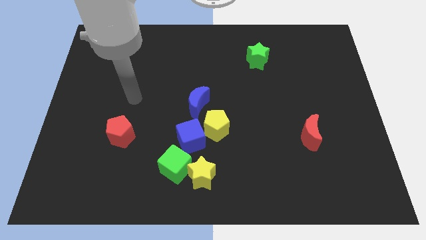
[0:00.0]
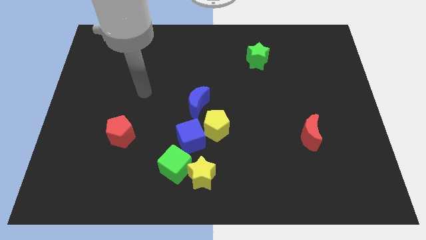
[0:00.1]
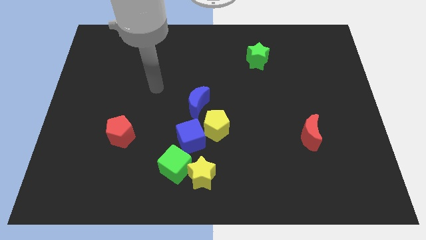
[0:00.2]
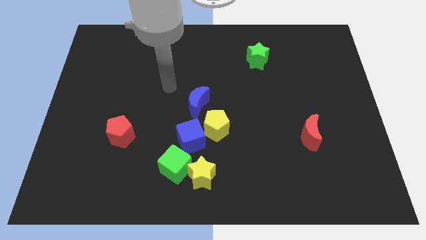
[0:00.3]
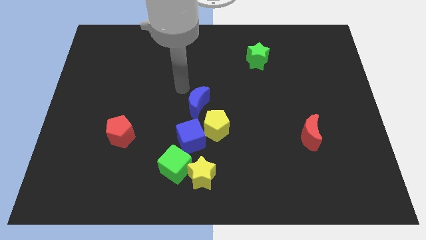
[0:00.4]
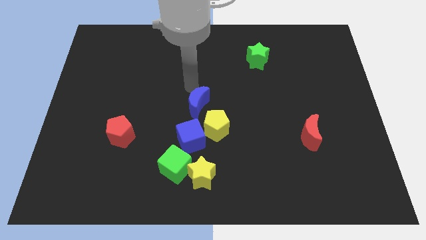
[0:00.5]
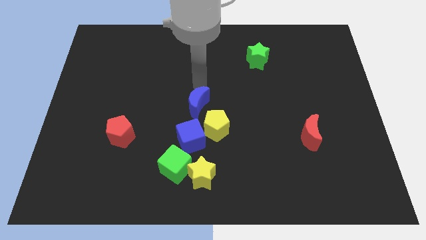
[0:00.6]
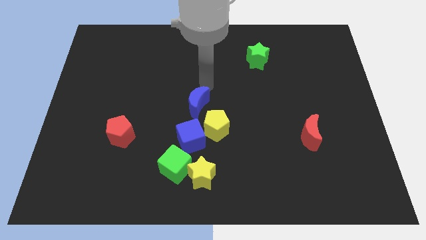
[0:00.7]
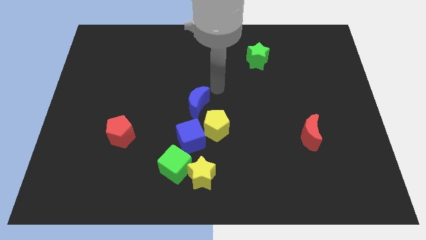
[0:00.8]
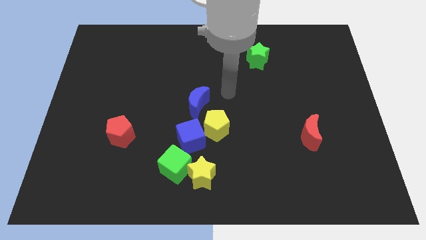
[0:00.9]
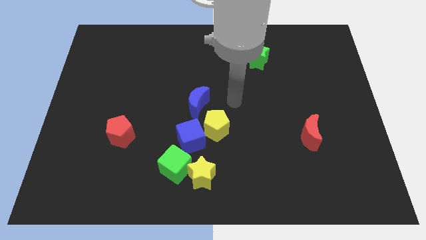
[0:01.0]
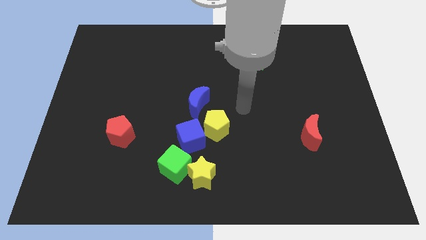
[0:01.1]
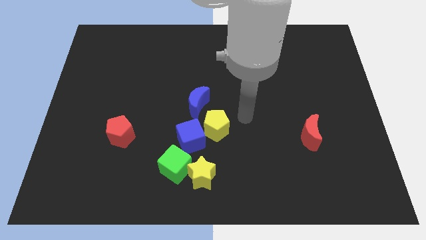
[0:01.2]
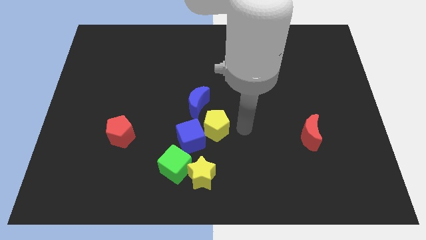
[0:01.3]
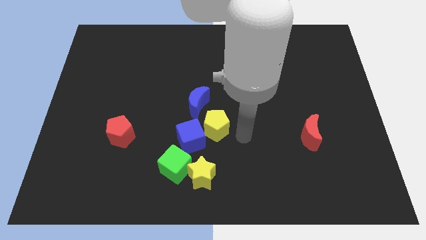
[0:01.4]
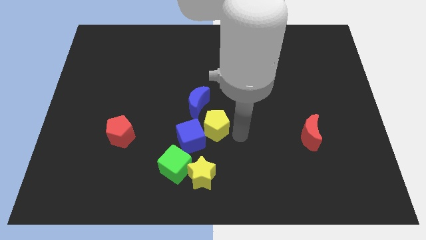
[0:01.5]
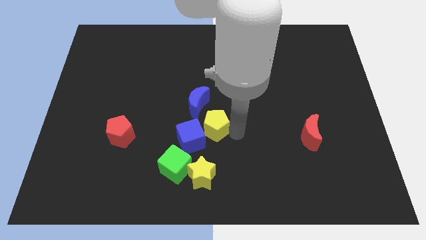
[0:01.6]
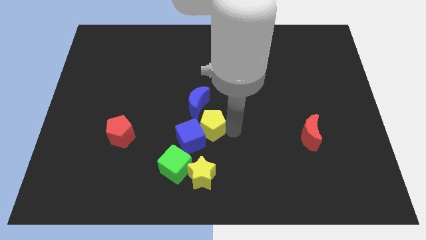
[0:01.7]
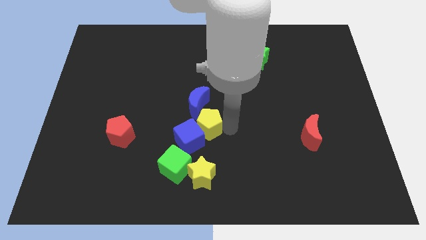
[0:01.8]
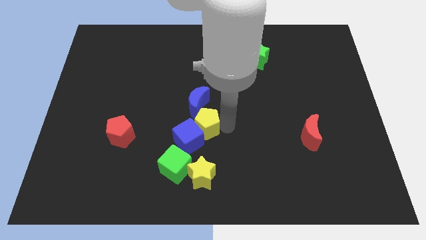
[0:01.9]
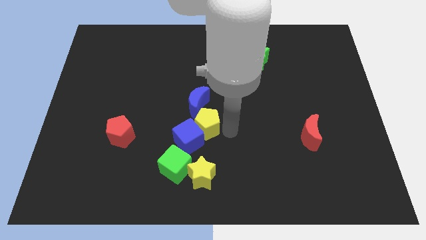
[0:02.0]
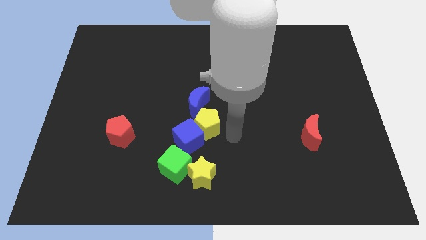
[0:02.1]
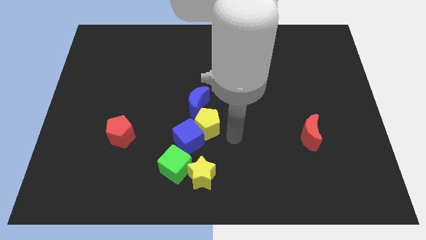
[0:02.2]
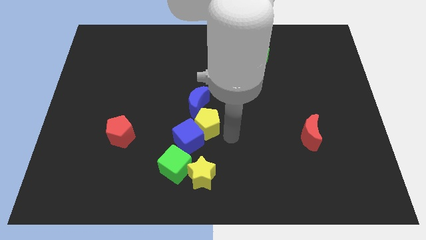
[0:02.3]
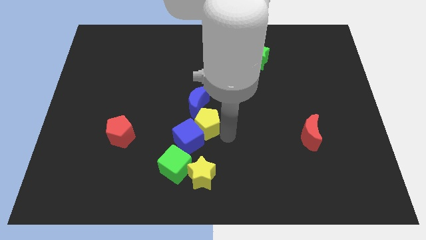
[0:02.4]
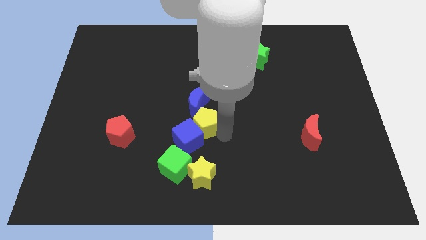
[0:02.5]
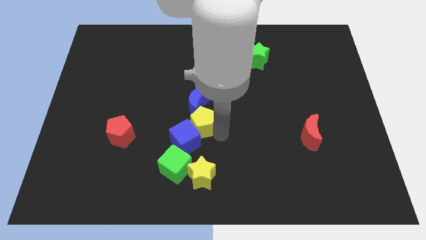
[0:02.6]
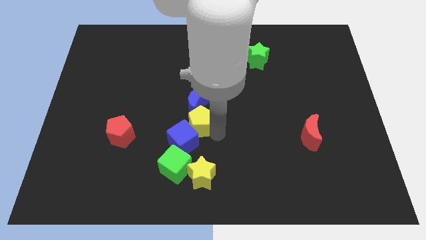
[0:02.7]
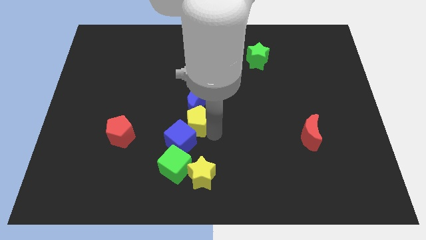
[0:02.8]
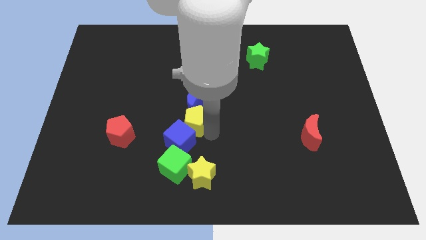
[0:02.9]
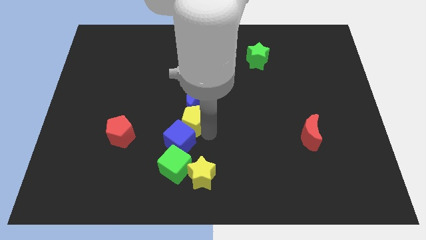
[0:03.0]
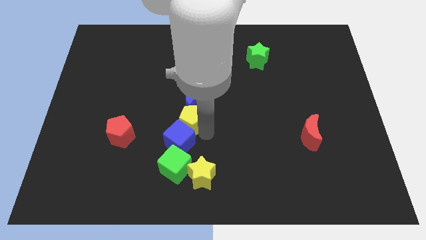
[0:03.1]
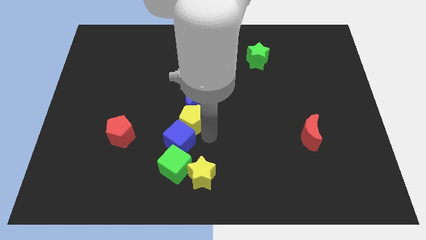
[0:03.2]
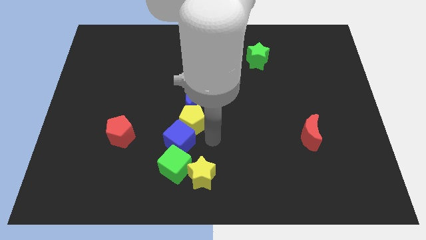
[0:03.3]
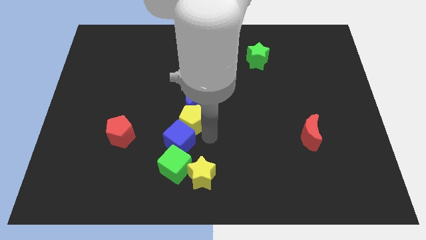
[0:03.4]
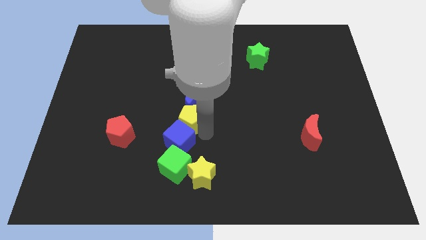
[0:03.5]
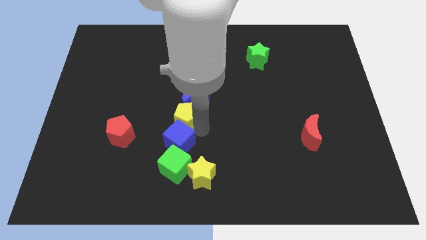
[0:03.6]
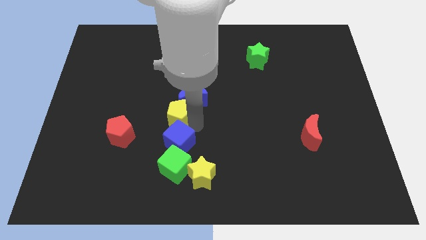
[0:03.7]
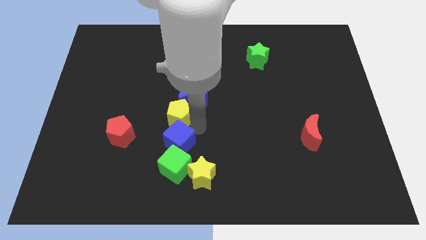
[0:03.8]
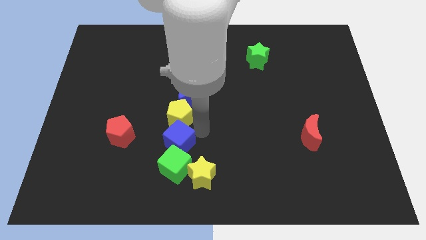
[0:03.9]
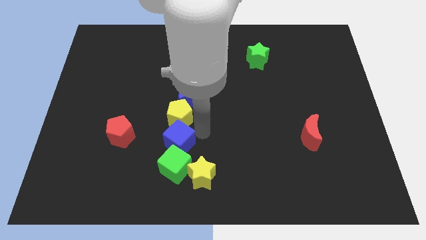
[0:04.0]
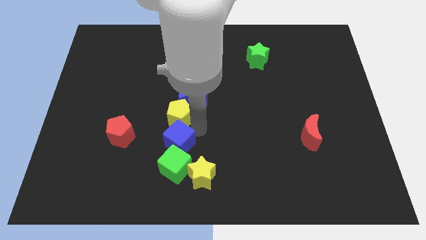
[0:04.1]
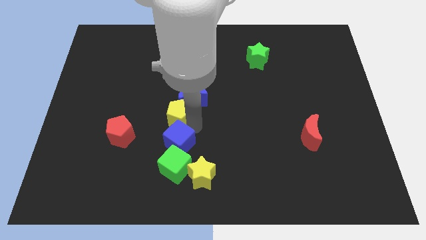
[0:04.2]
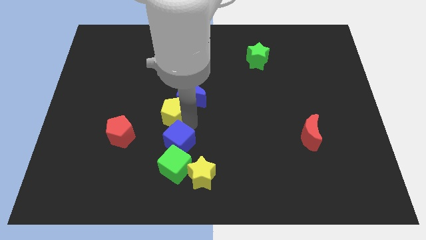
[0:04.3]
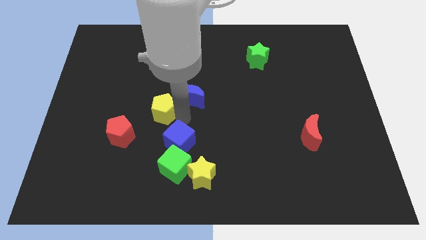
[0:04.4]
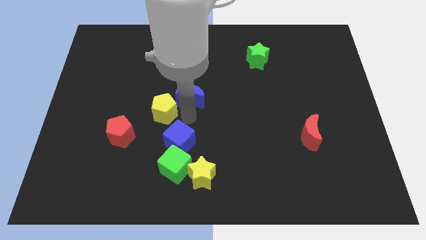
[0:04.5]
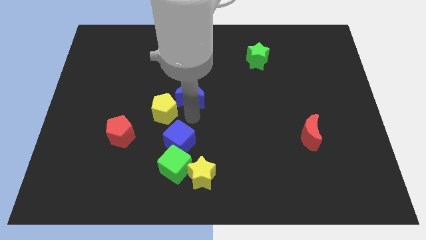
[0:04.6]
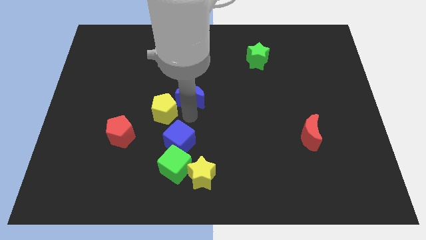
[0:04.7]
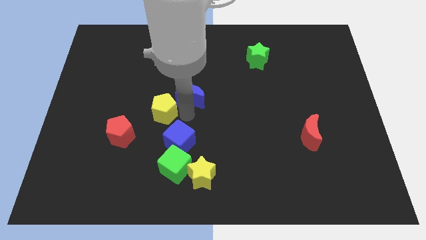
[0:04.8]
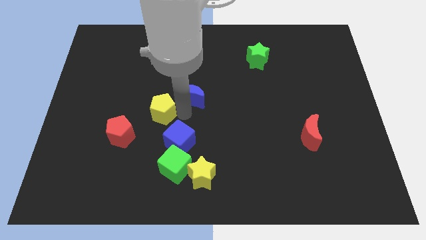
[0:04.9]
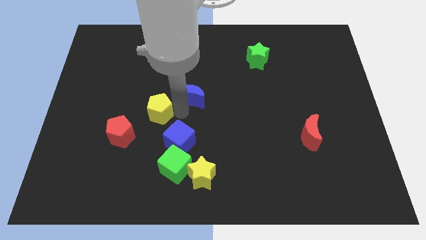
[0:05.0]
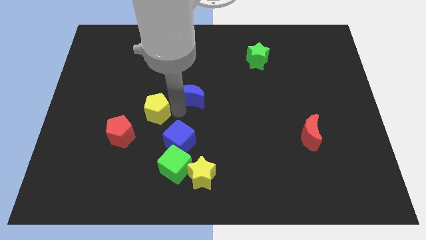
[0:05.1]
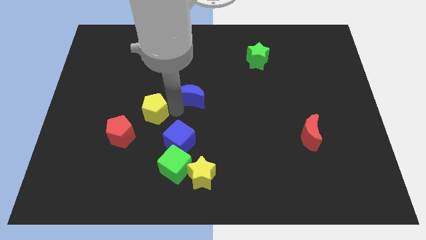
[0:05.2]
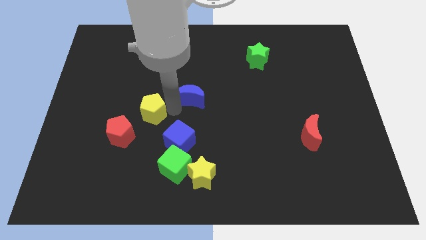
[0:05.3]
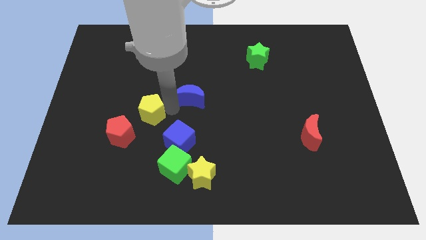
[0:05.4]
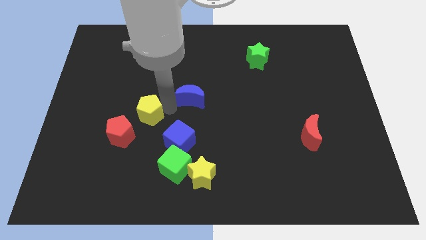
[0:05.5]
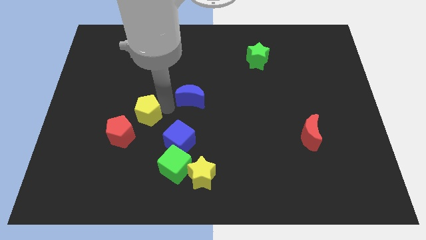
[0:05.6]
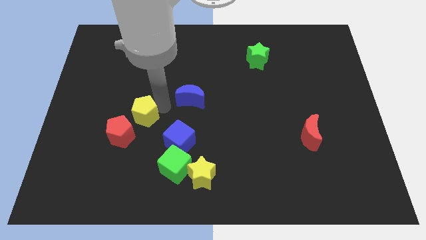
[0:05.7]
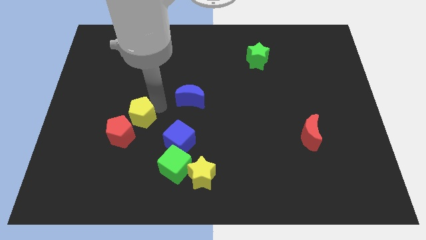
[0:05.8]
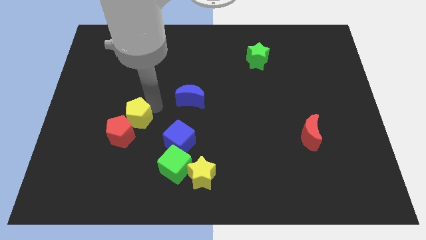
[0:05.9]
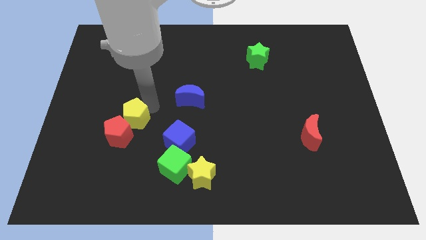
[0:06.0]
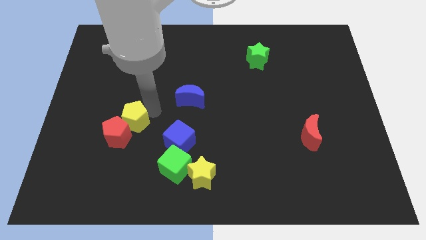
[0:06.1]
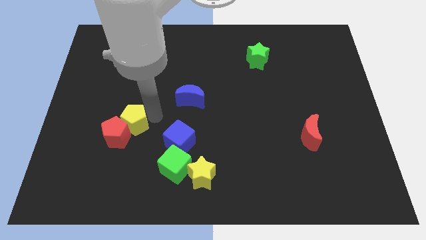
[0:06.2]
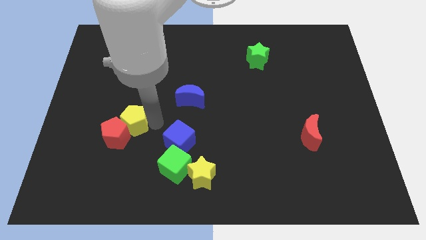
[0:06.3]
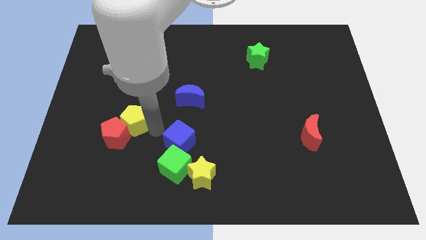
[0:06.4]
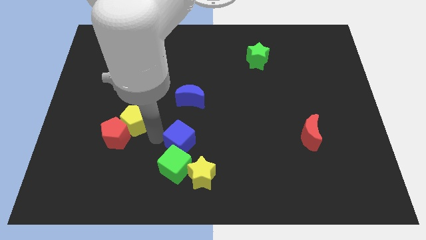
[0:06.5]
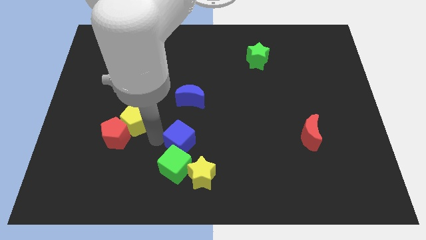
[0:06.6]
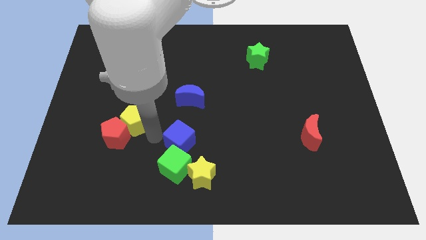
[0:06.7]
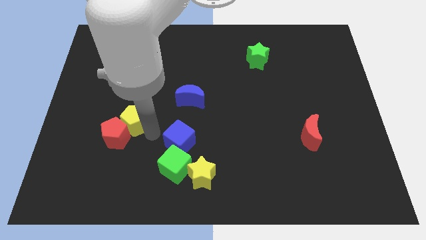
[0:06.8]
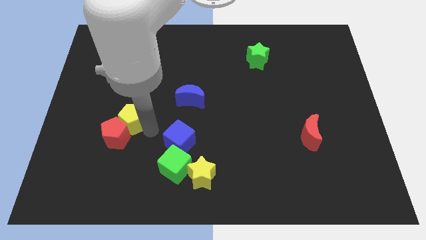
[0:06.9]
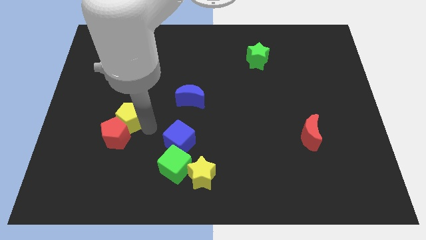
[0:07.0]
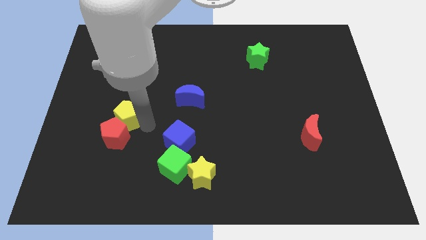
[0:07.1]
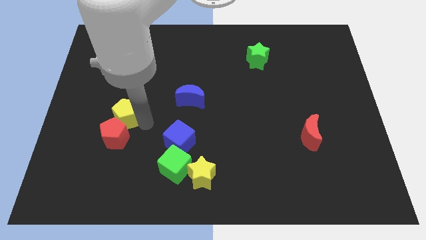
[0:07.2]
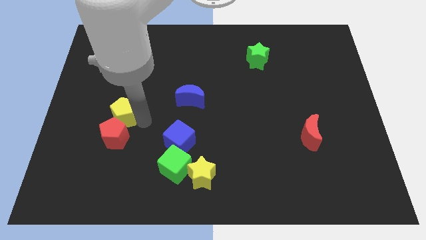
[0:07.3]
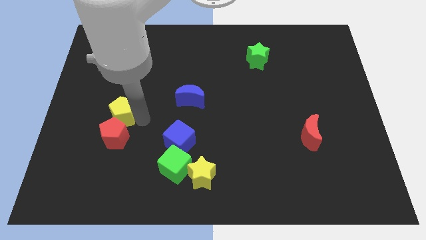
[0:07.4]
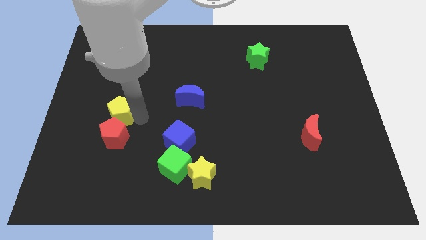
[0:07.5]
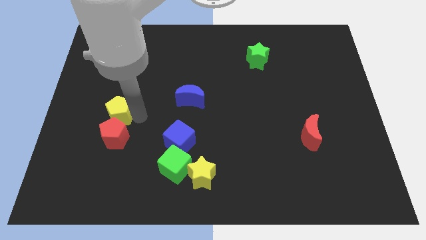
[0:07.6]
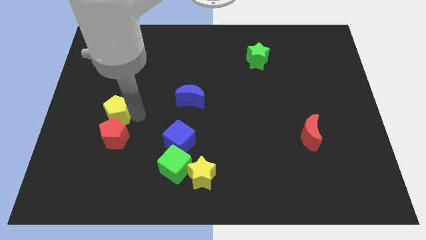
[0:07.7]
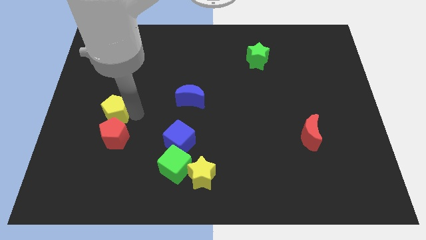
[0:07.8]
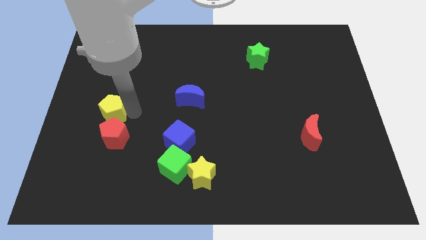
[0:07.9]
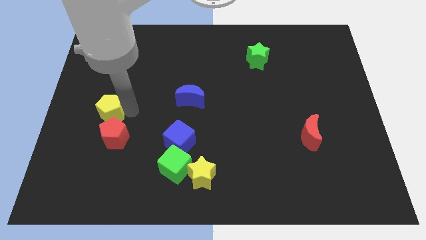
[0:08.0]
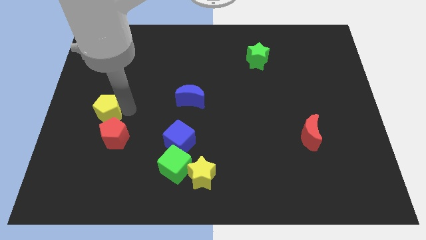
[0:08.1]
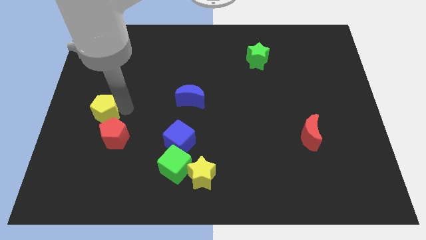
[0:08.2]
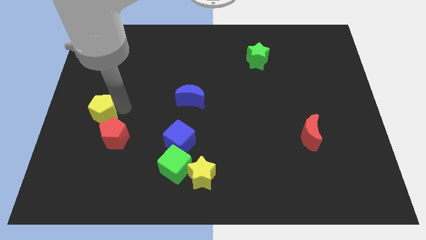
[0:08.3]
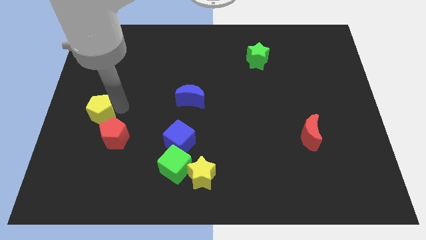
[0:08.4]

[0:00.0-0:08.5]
move the yellow pentagon to the left side of the board
